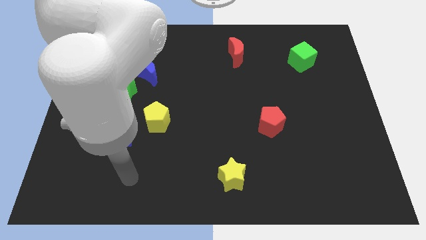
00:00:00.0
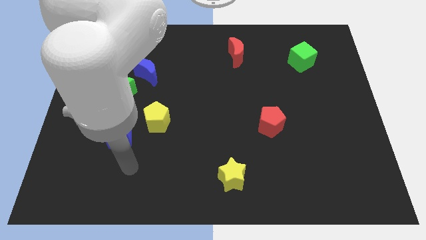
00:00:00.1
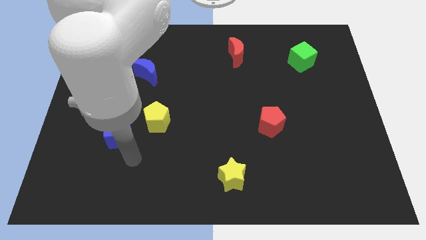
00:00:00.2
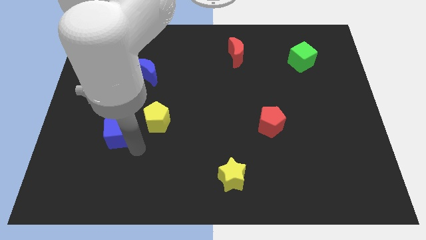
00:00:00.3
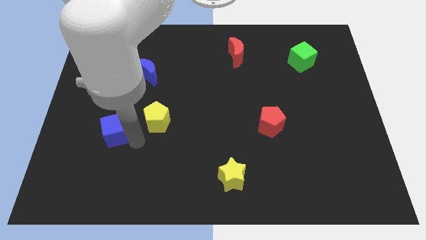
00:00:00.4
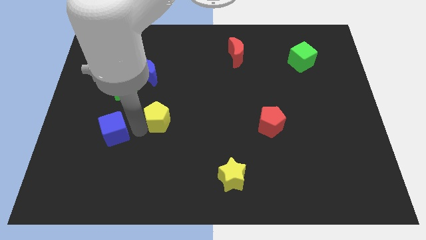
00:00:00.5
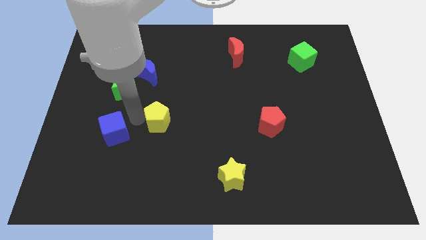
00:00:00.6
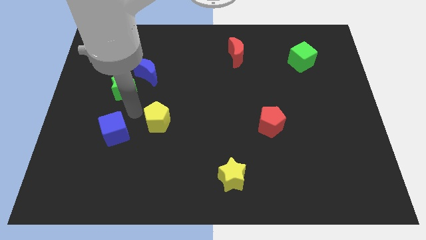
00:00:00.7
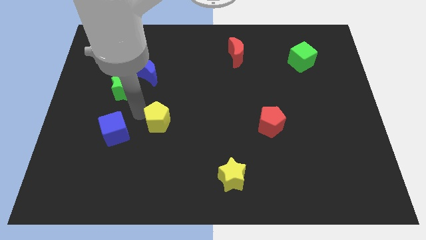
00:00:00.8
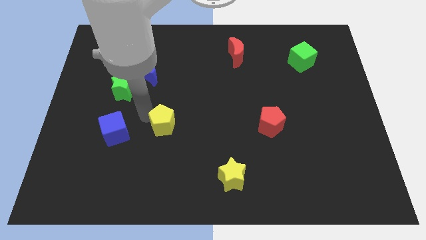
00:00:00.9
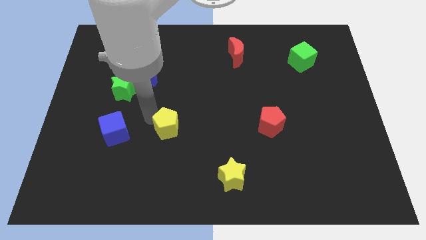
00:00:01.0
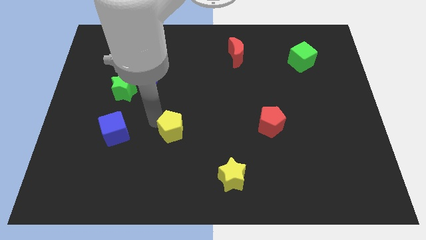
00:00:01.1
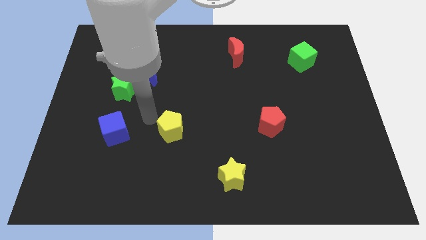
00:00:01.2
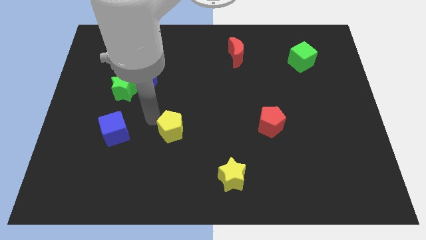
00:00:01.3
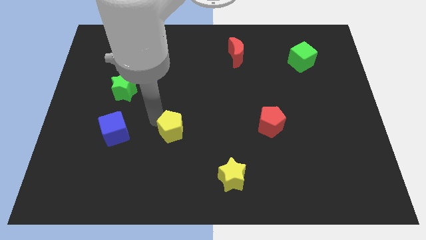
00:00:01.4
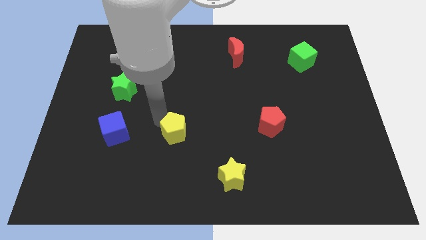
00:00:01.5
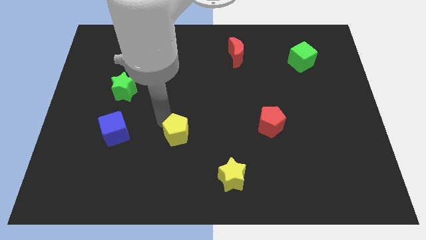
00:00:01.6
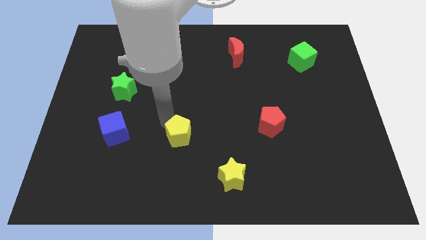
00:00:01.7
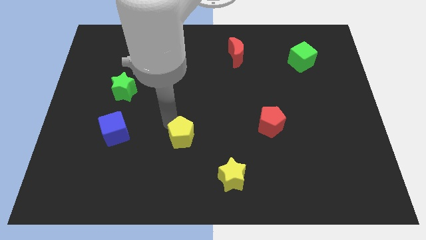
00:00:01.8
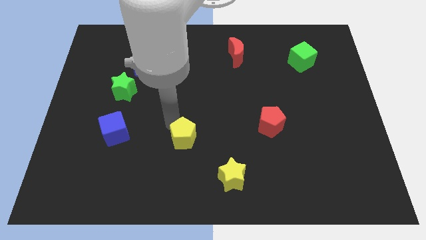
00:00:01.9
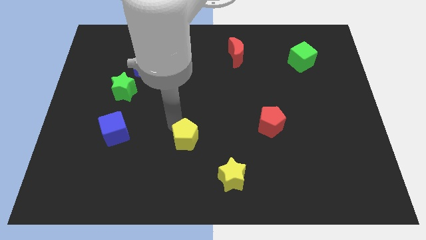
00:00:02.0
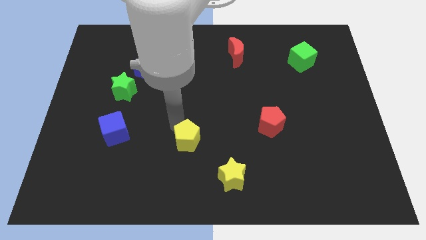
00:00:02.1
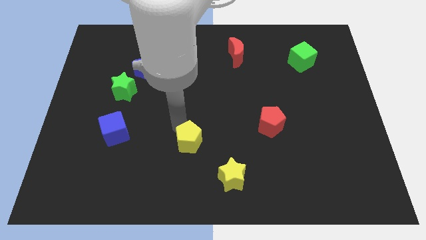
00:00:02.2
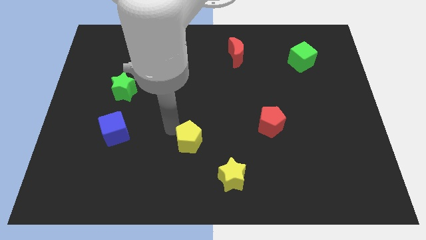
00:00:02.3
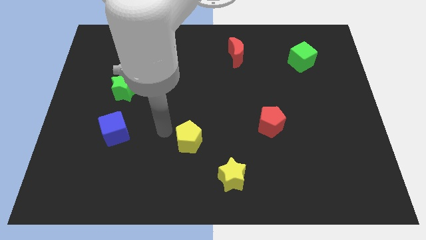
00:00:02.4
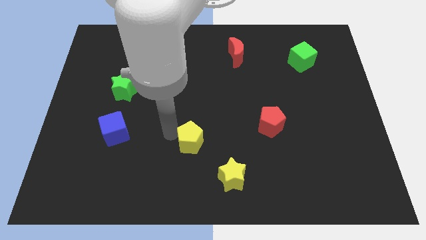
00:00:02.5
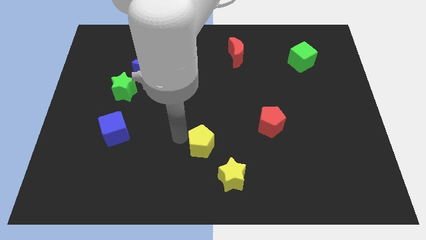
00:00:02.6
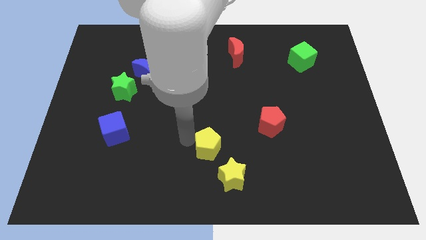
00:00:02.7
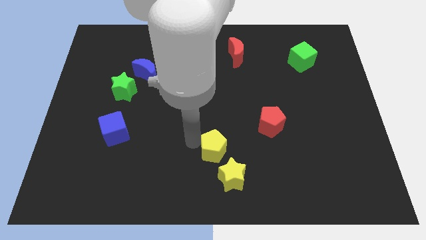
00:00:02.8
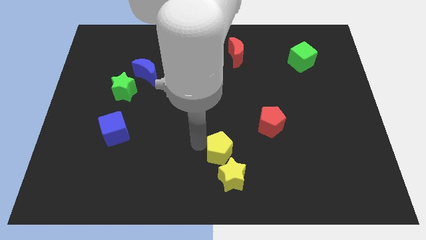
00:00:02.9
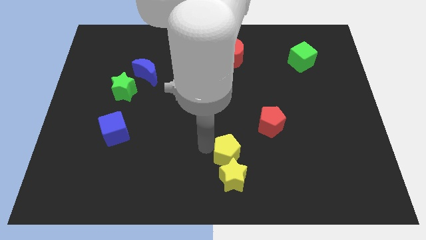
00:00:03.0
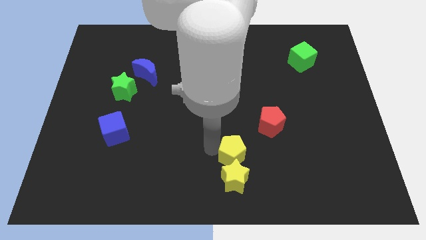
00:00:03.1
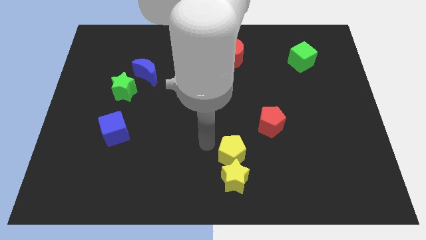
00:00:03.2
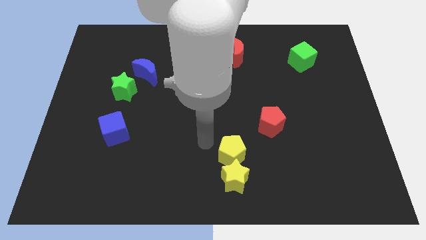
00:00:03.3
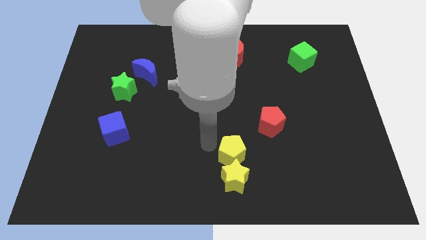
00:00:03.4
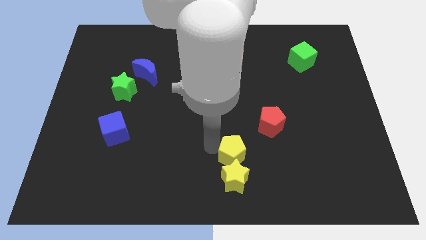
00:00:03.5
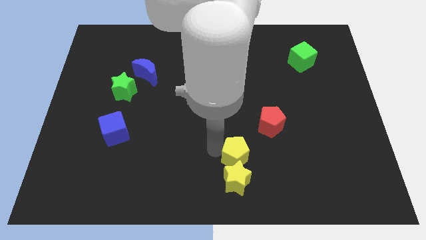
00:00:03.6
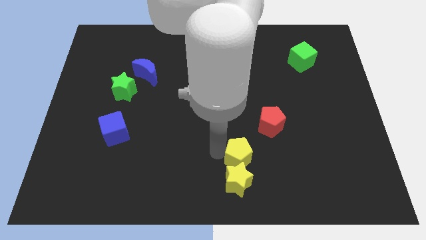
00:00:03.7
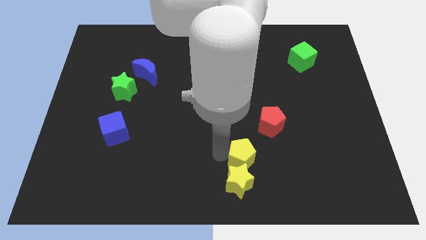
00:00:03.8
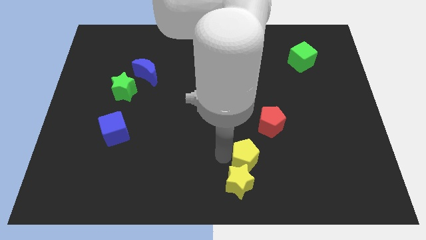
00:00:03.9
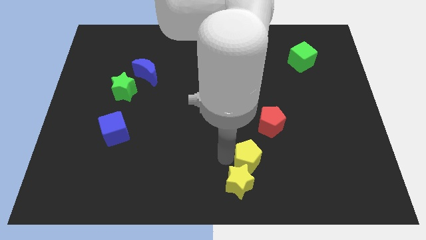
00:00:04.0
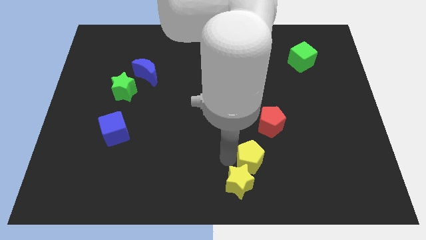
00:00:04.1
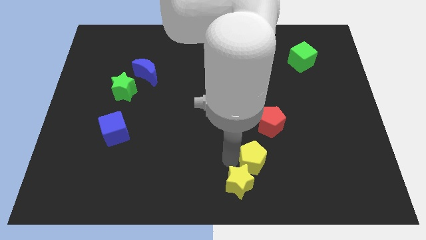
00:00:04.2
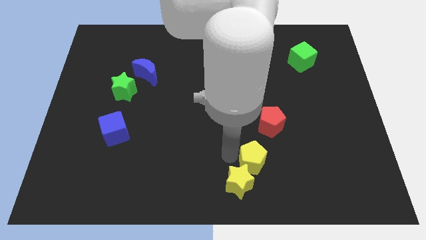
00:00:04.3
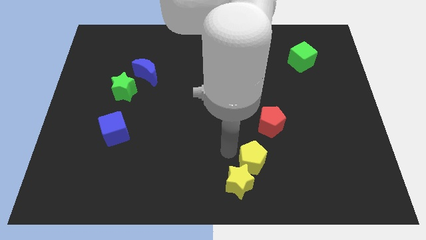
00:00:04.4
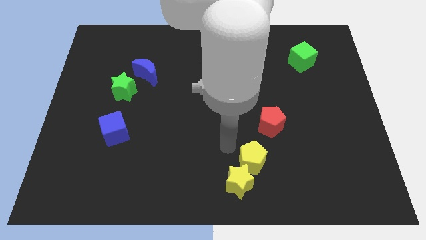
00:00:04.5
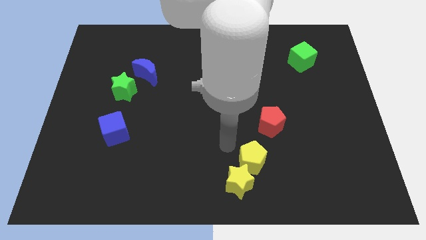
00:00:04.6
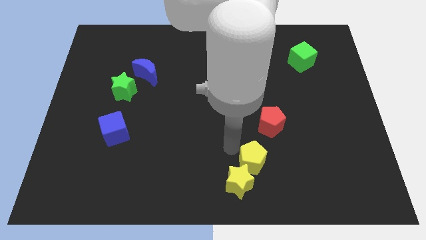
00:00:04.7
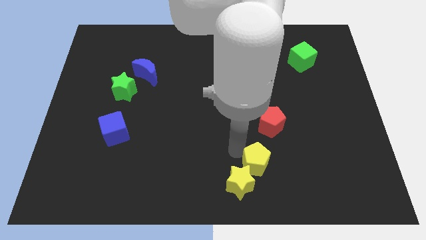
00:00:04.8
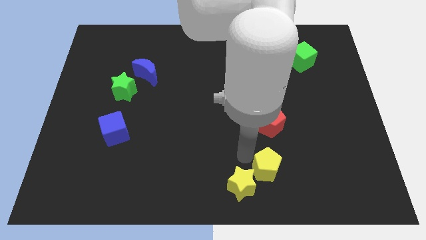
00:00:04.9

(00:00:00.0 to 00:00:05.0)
move the yellow pentagon to the right side of the yellow star

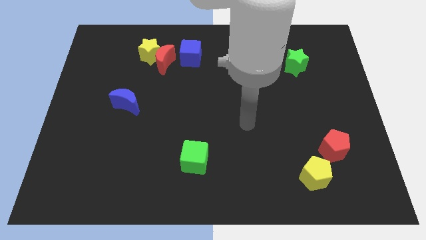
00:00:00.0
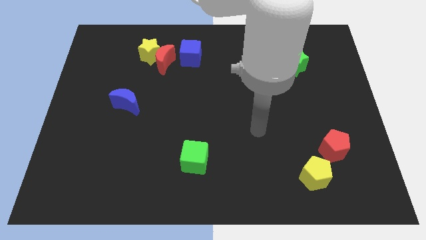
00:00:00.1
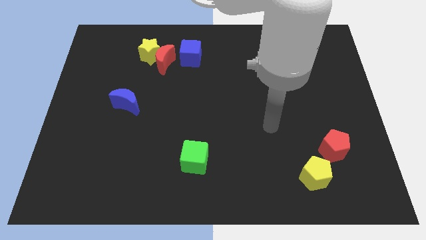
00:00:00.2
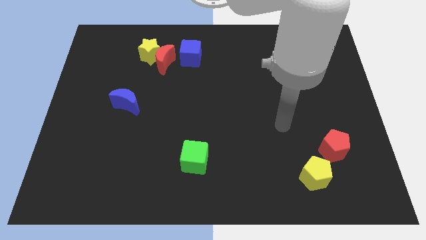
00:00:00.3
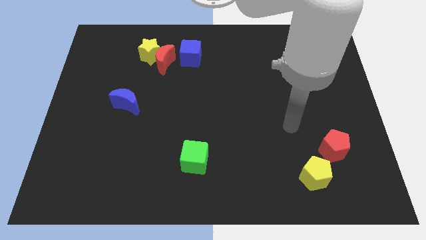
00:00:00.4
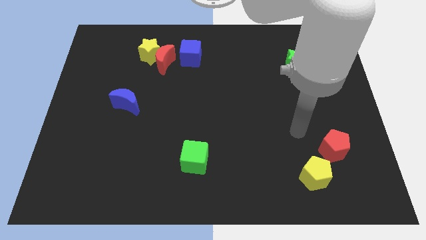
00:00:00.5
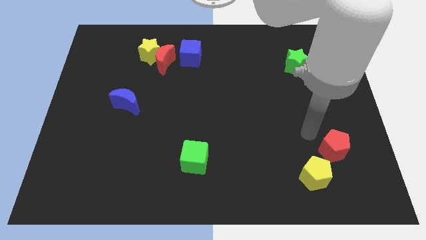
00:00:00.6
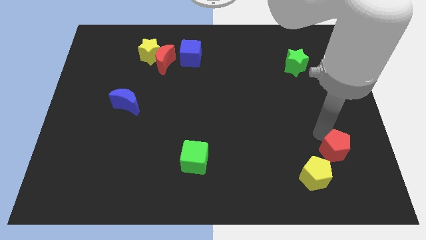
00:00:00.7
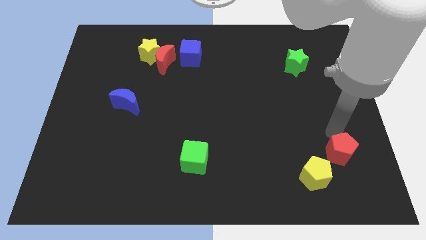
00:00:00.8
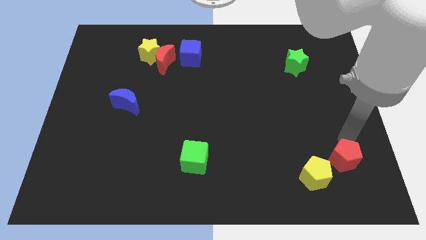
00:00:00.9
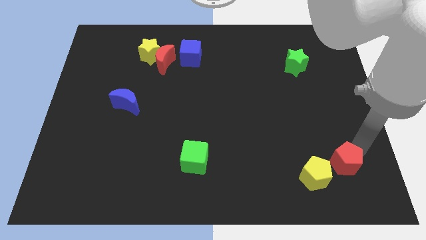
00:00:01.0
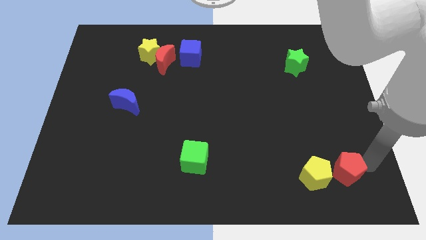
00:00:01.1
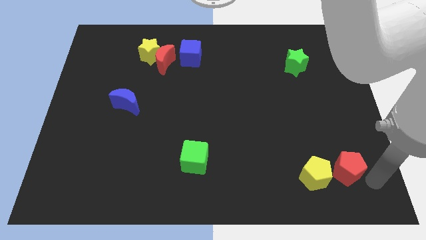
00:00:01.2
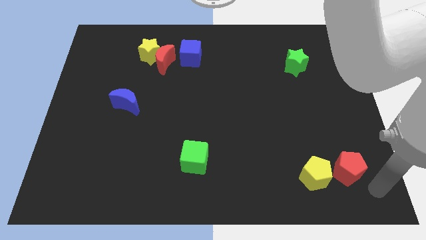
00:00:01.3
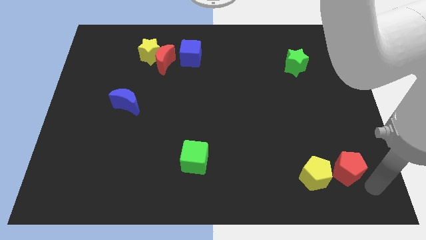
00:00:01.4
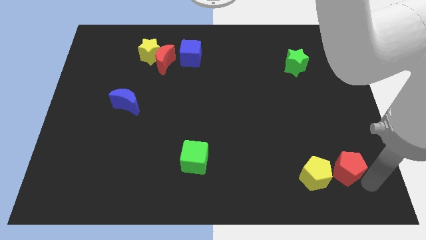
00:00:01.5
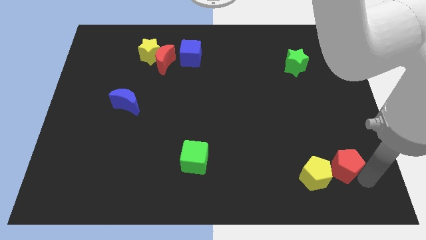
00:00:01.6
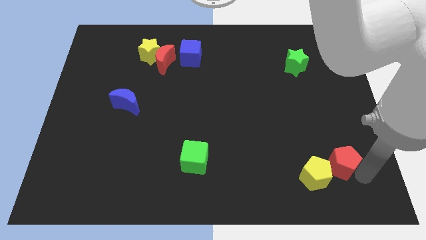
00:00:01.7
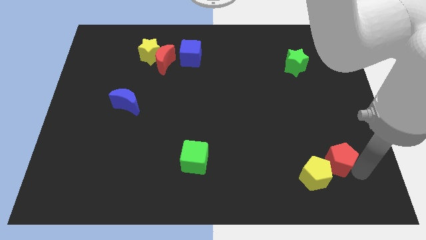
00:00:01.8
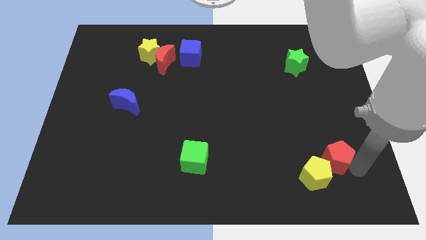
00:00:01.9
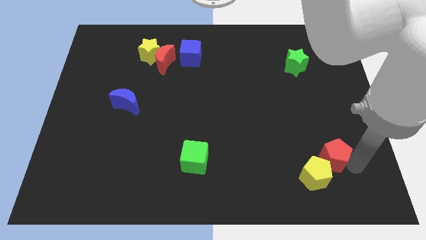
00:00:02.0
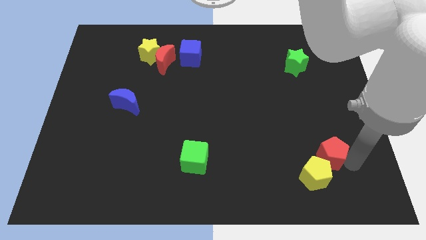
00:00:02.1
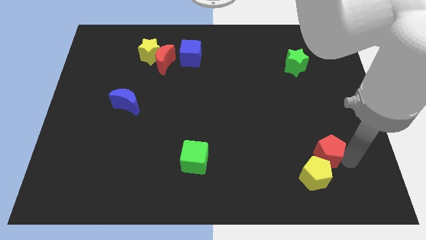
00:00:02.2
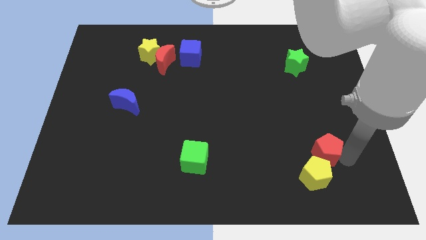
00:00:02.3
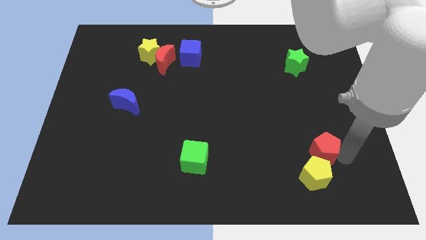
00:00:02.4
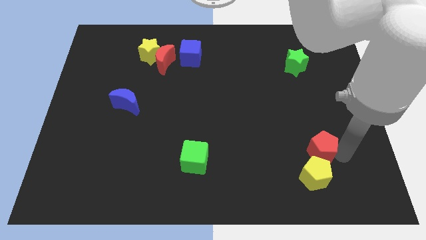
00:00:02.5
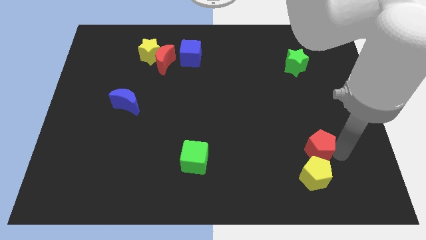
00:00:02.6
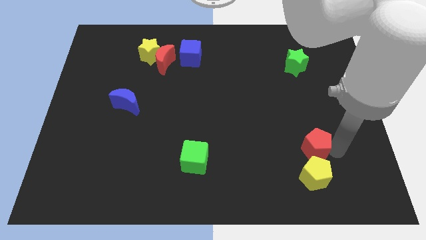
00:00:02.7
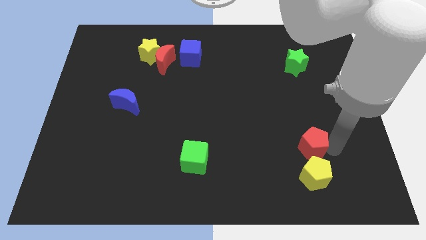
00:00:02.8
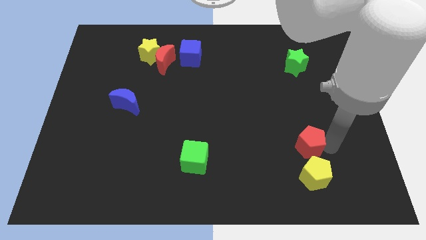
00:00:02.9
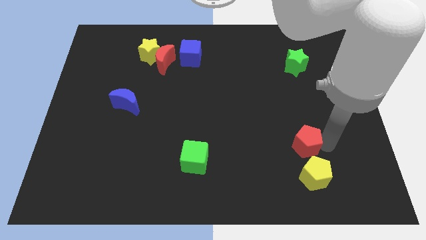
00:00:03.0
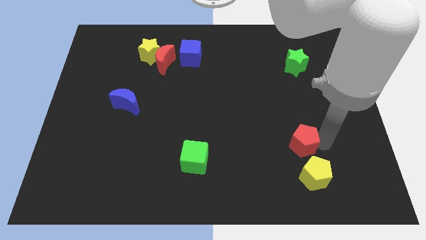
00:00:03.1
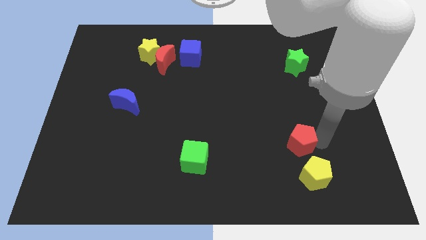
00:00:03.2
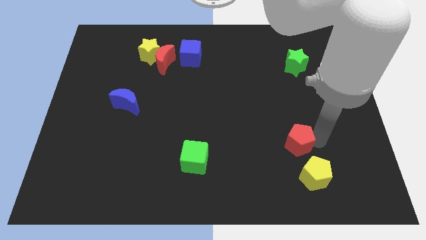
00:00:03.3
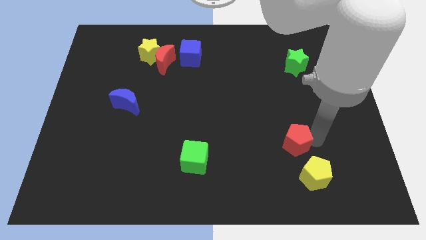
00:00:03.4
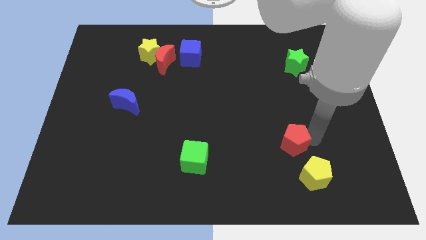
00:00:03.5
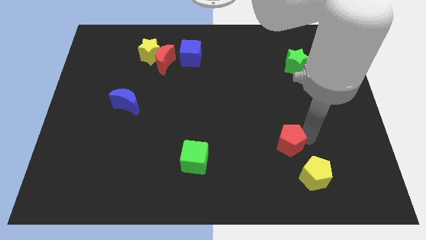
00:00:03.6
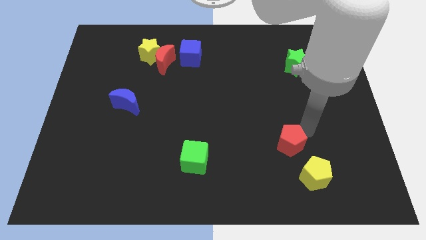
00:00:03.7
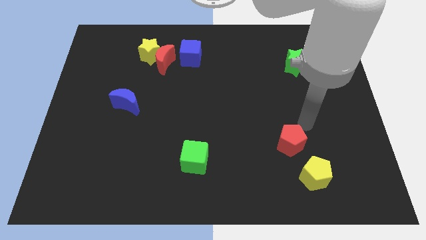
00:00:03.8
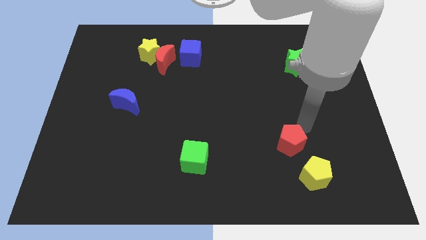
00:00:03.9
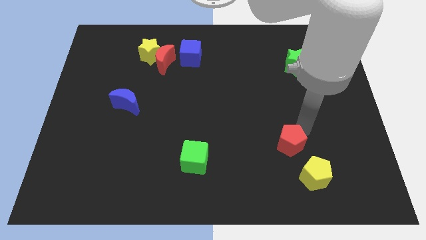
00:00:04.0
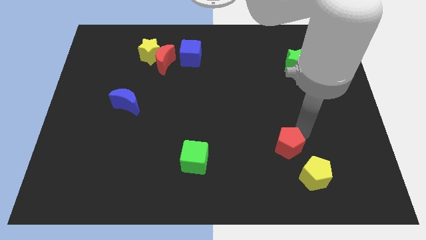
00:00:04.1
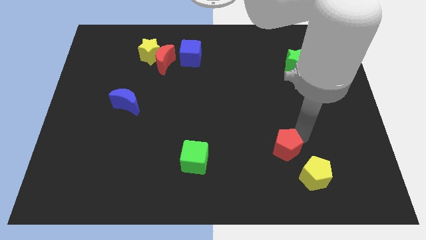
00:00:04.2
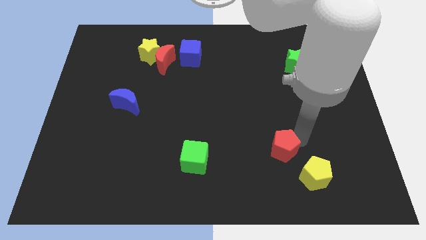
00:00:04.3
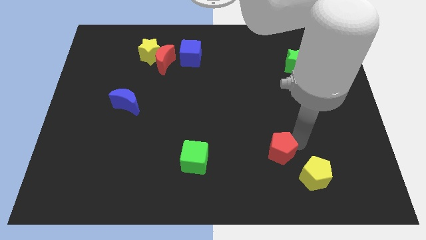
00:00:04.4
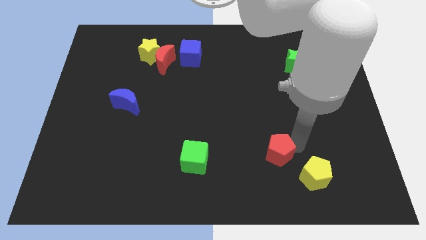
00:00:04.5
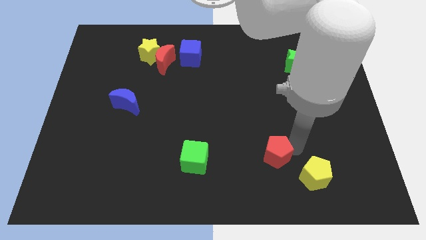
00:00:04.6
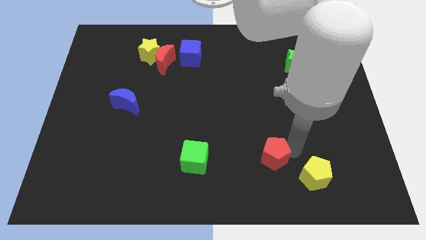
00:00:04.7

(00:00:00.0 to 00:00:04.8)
slide the red pentagon left of the yellow pentagon
